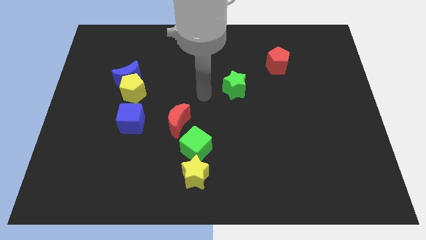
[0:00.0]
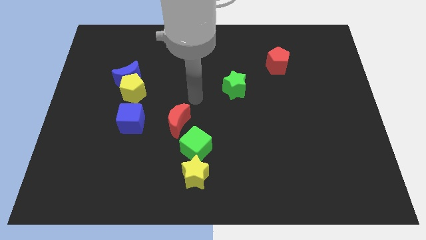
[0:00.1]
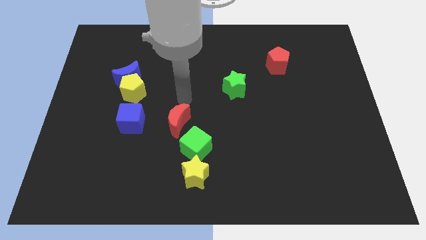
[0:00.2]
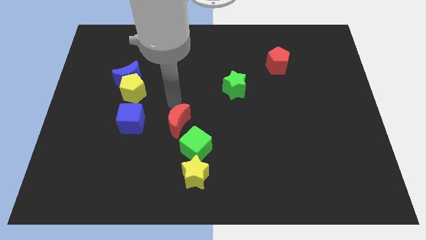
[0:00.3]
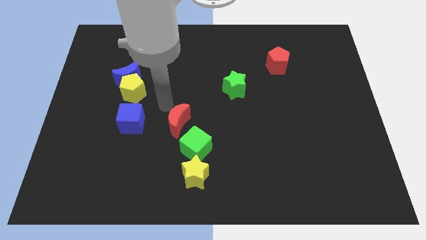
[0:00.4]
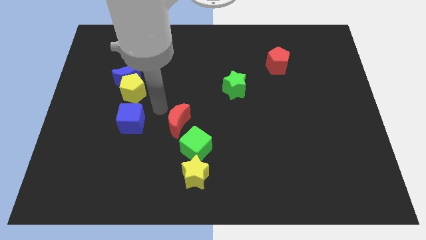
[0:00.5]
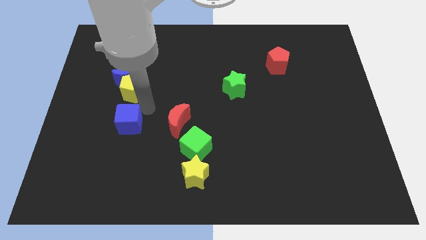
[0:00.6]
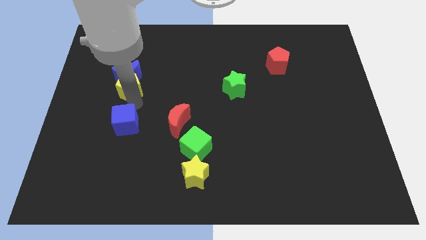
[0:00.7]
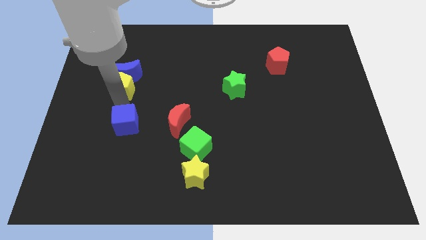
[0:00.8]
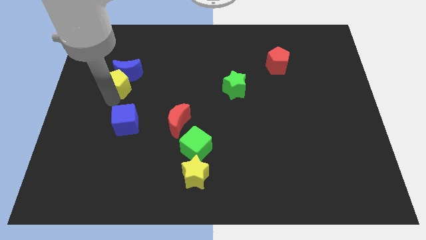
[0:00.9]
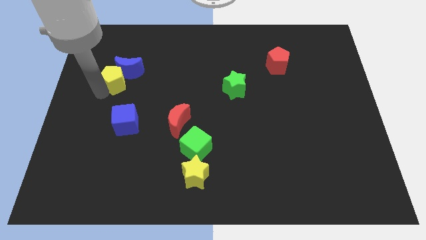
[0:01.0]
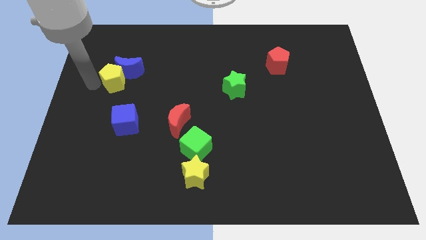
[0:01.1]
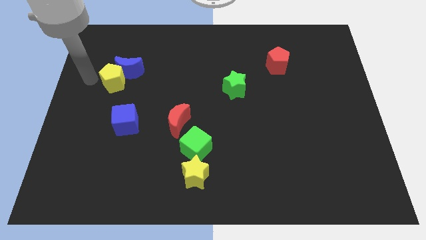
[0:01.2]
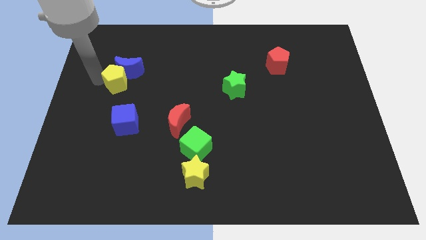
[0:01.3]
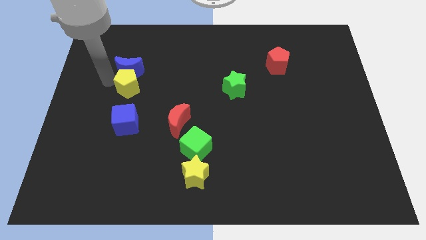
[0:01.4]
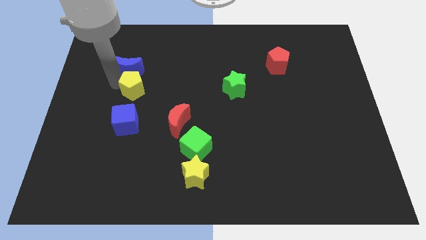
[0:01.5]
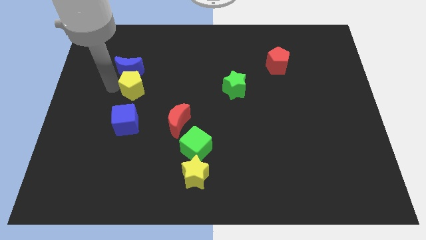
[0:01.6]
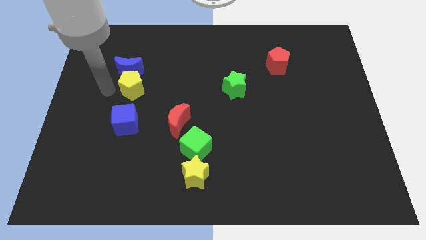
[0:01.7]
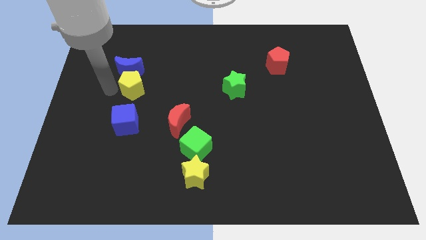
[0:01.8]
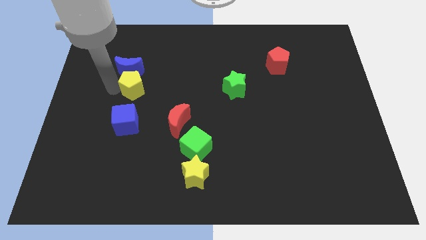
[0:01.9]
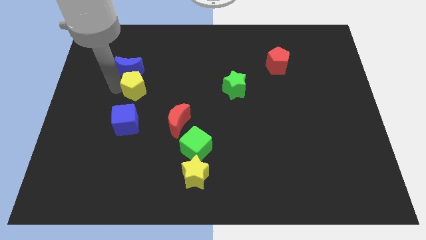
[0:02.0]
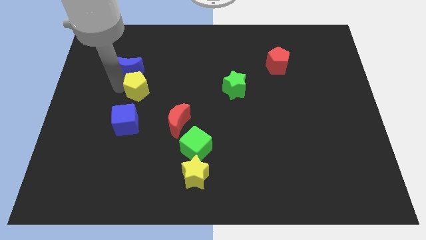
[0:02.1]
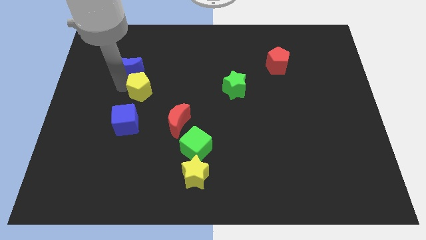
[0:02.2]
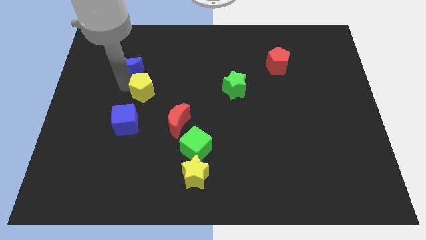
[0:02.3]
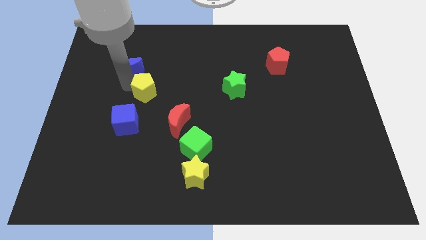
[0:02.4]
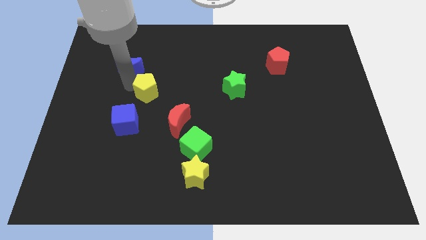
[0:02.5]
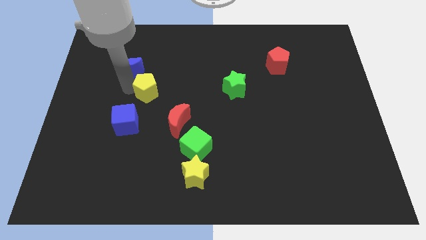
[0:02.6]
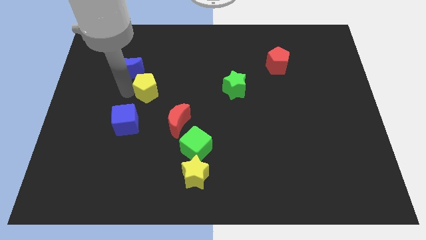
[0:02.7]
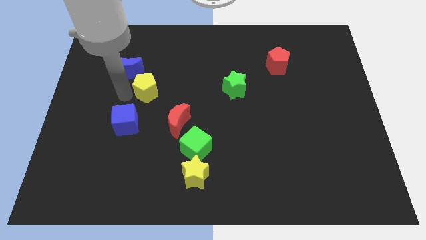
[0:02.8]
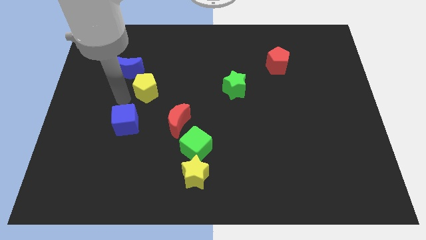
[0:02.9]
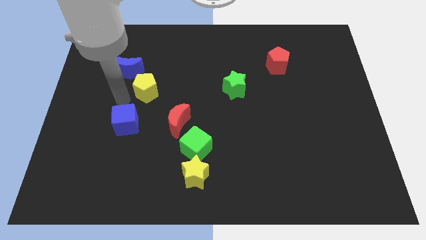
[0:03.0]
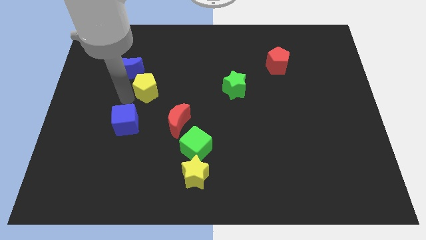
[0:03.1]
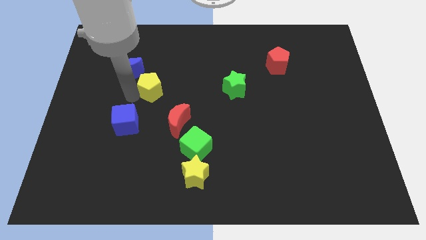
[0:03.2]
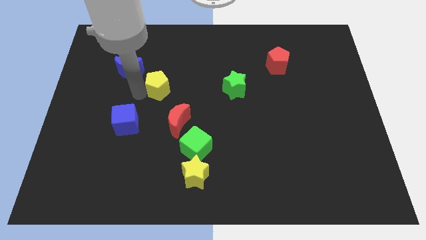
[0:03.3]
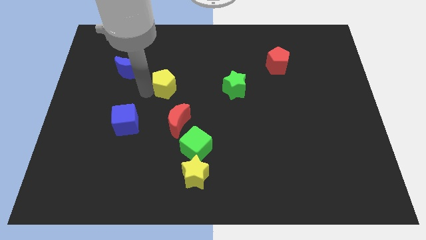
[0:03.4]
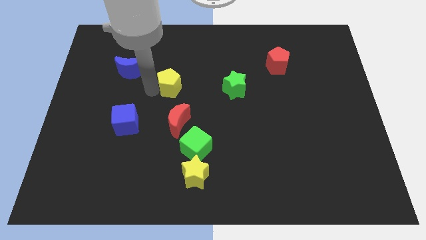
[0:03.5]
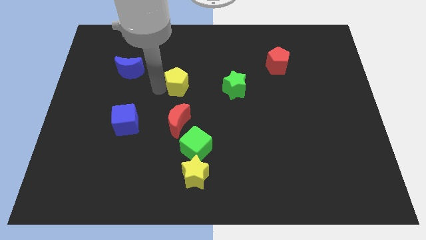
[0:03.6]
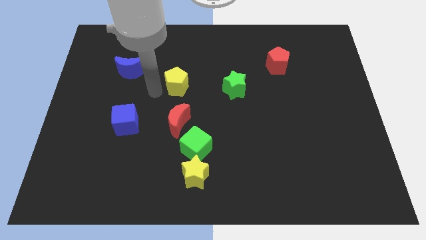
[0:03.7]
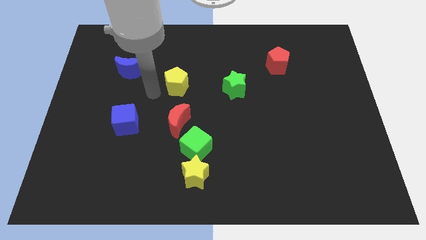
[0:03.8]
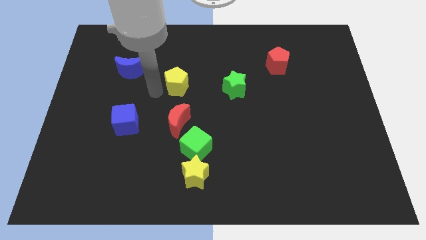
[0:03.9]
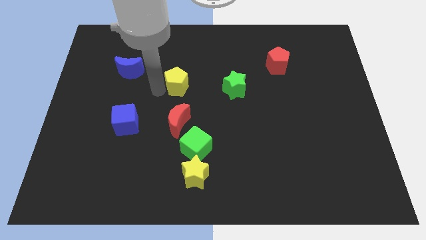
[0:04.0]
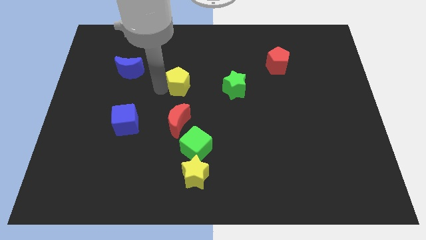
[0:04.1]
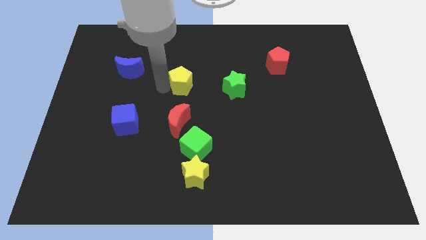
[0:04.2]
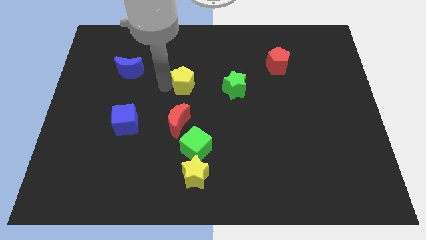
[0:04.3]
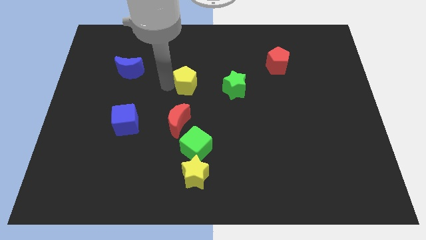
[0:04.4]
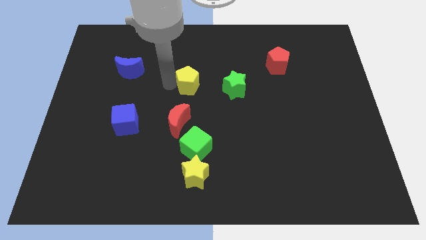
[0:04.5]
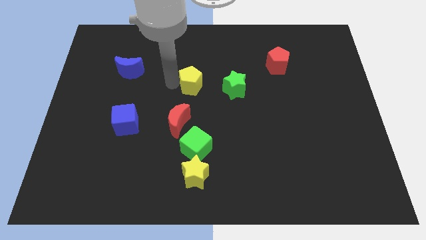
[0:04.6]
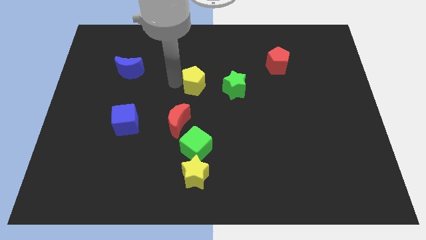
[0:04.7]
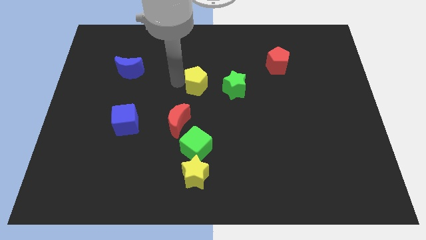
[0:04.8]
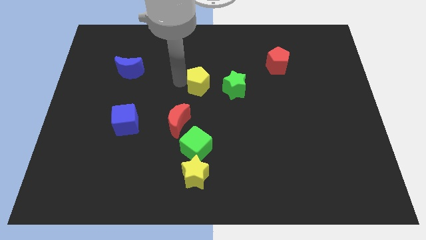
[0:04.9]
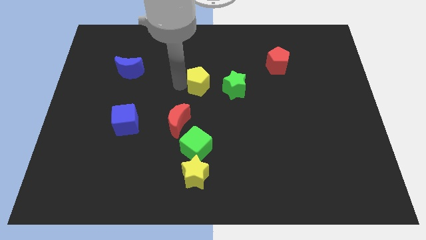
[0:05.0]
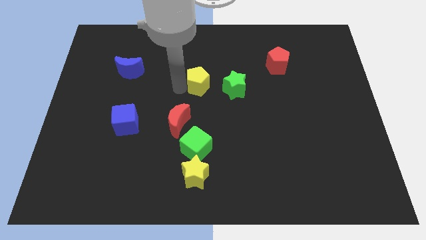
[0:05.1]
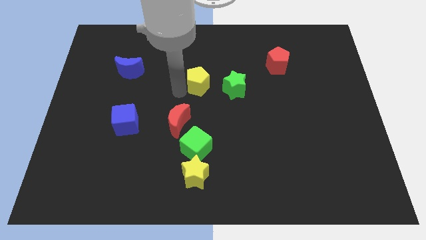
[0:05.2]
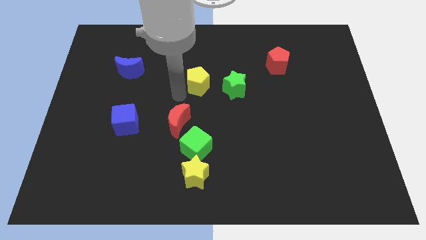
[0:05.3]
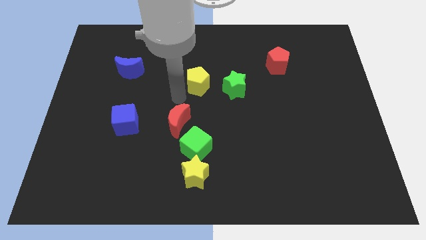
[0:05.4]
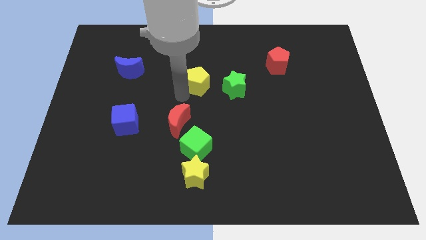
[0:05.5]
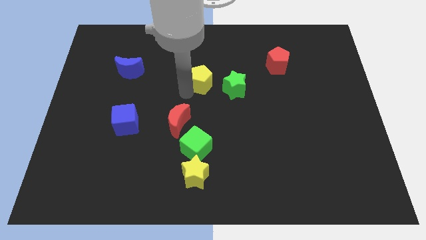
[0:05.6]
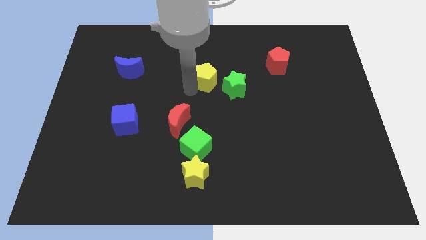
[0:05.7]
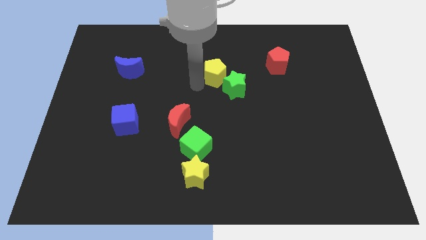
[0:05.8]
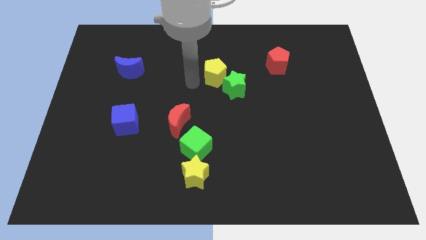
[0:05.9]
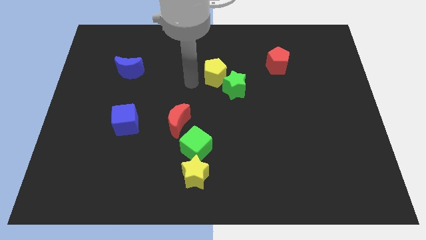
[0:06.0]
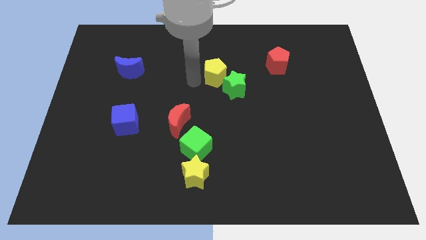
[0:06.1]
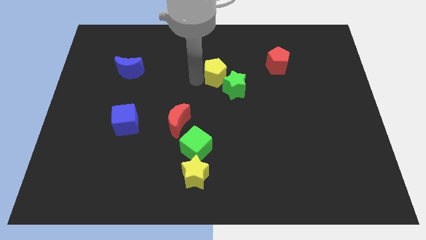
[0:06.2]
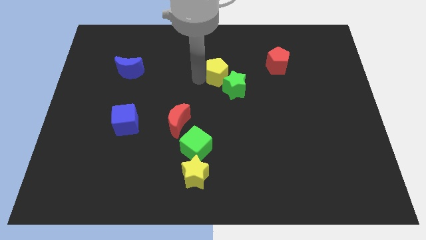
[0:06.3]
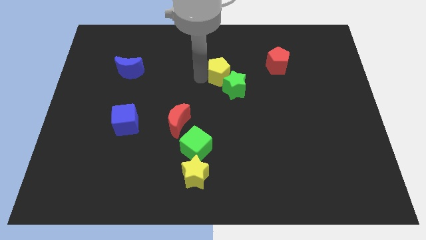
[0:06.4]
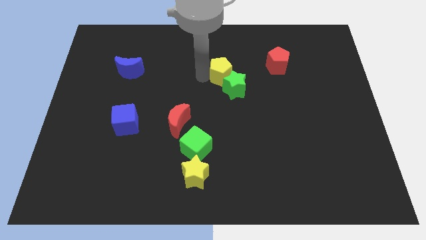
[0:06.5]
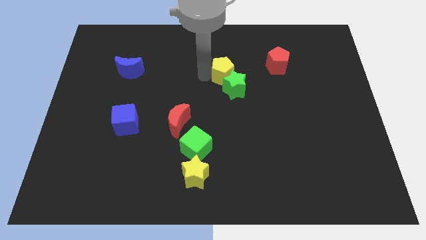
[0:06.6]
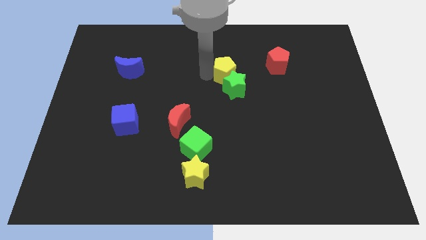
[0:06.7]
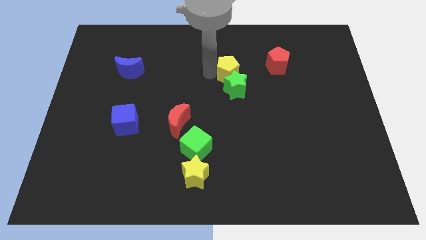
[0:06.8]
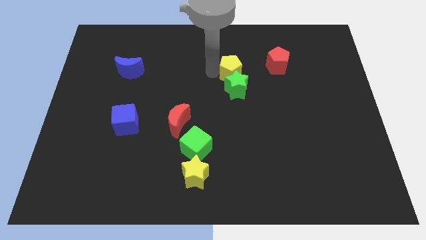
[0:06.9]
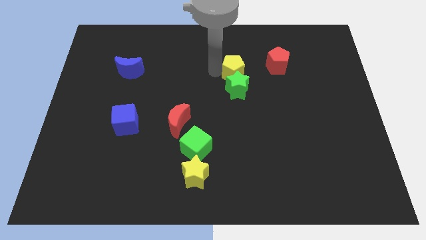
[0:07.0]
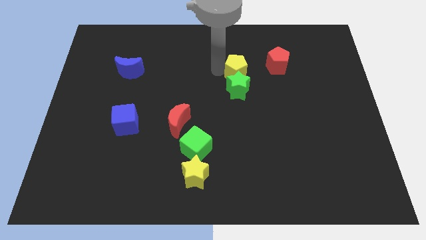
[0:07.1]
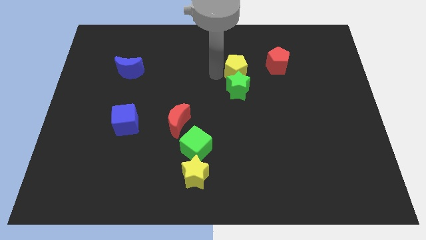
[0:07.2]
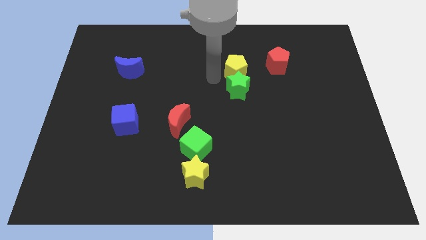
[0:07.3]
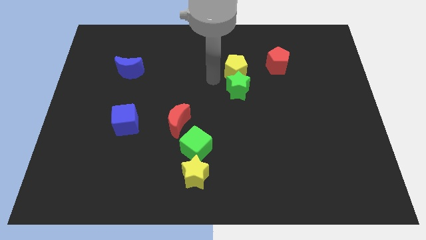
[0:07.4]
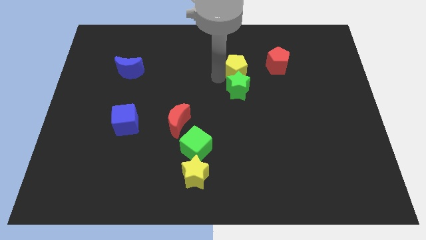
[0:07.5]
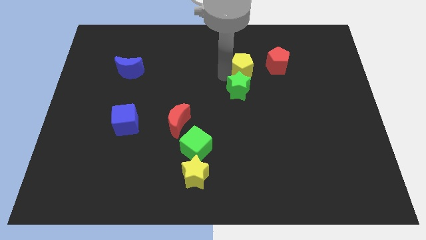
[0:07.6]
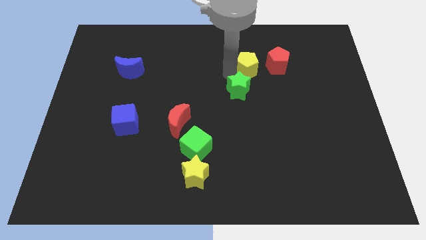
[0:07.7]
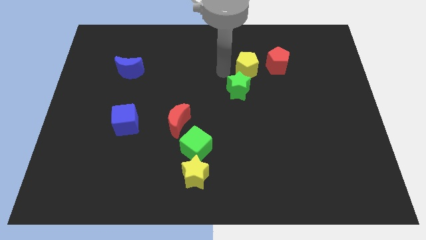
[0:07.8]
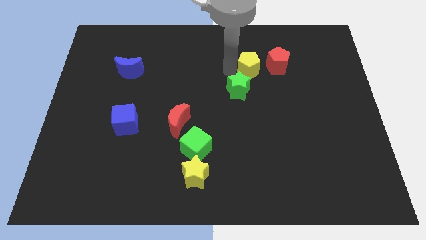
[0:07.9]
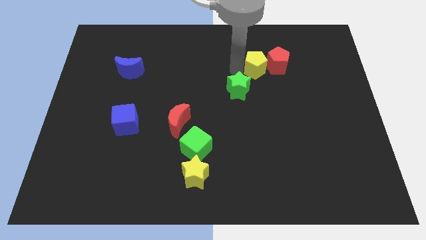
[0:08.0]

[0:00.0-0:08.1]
push the yellow pentagon close to the red pentagon
